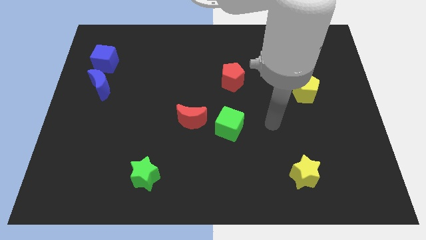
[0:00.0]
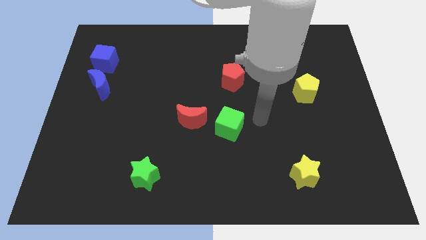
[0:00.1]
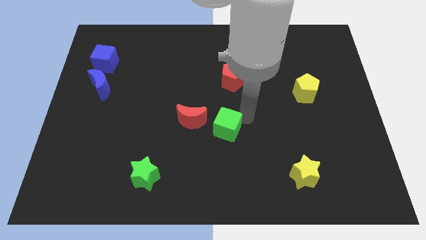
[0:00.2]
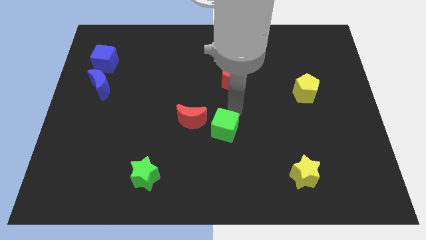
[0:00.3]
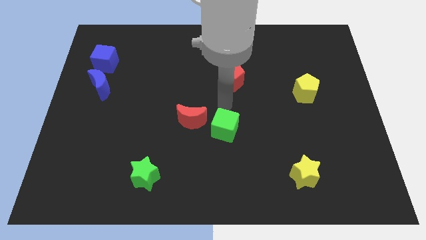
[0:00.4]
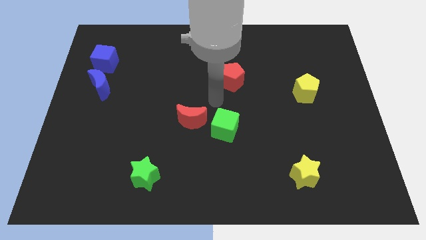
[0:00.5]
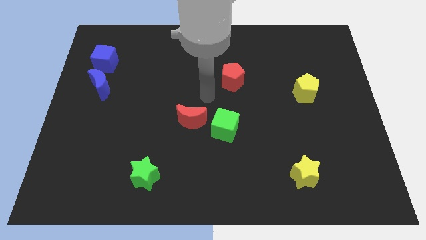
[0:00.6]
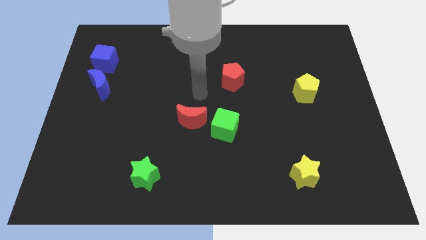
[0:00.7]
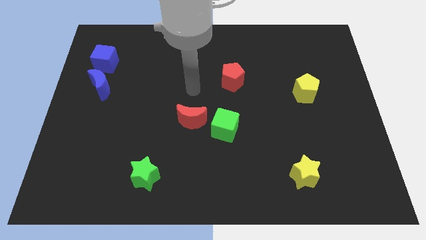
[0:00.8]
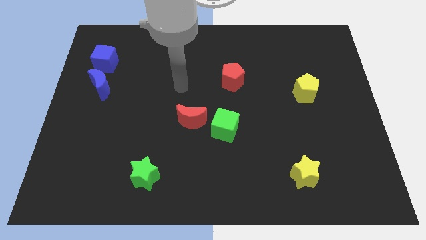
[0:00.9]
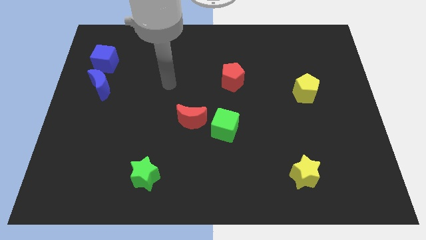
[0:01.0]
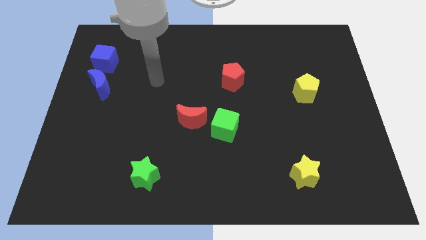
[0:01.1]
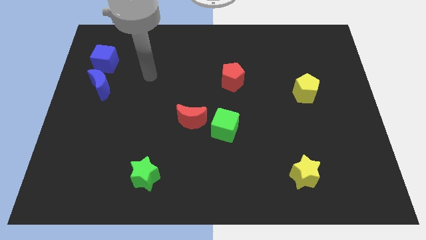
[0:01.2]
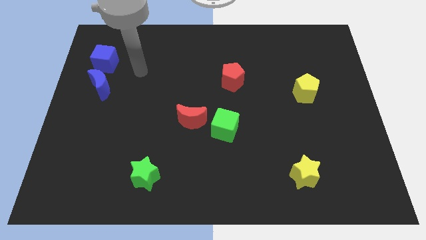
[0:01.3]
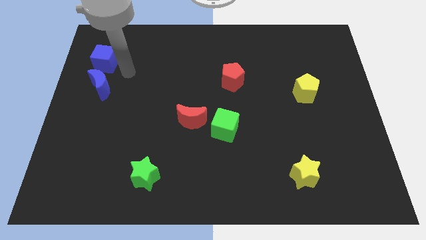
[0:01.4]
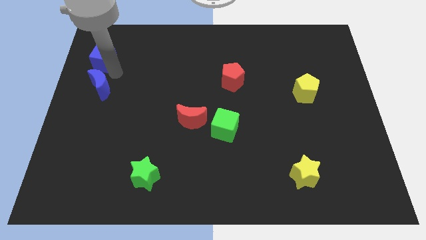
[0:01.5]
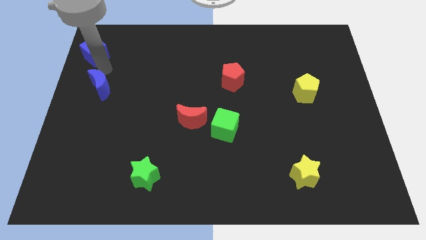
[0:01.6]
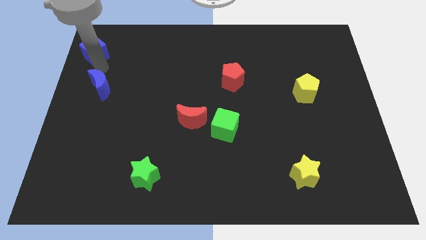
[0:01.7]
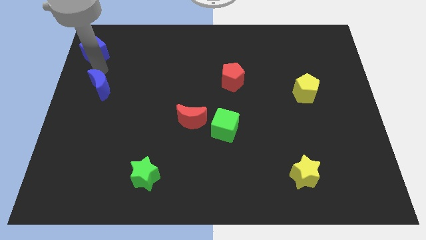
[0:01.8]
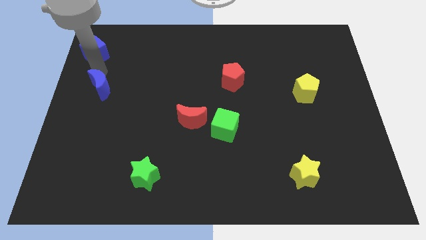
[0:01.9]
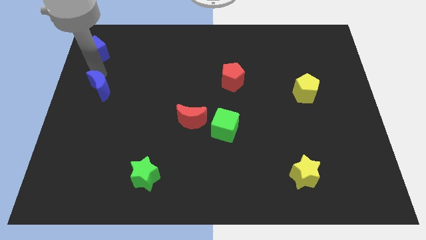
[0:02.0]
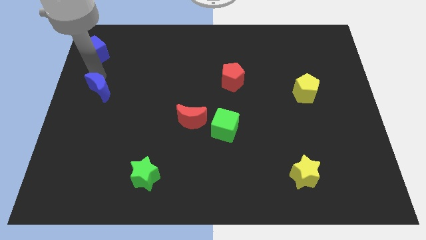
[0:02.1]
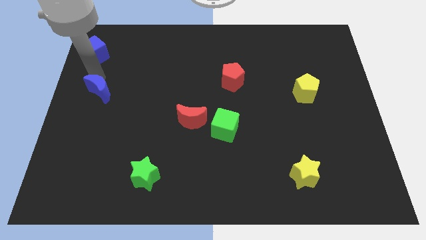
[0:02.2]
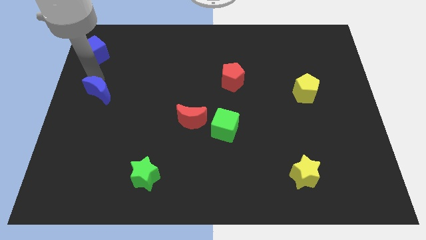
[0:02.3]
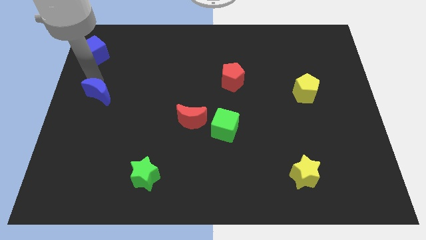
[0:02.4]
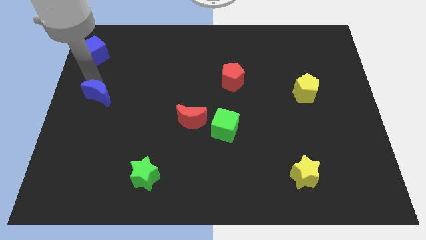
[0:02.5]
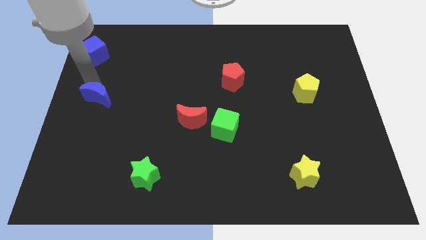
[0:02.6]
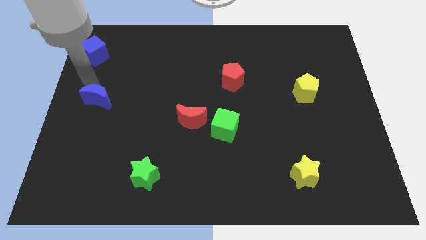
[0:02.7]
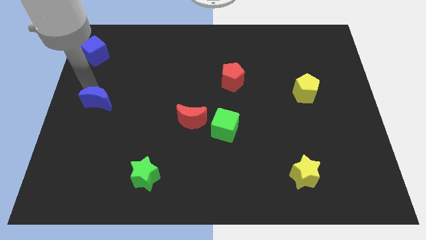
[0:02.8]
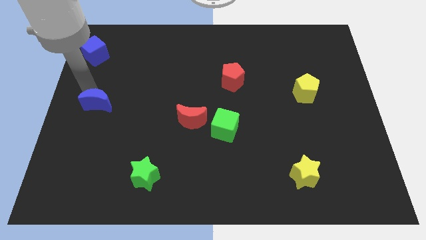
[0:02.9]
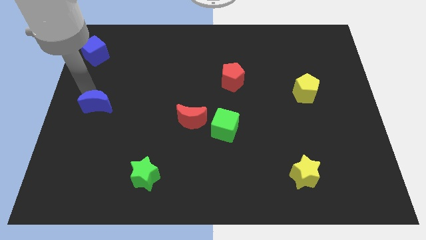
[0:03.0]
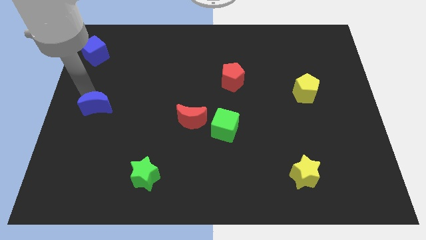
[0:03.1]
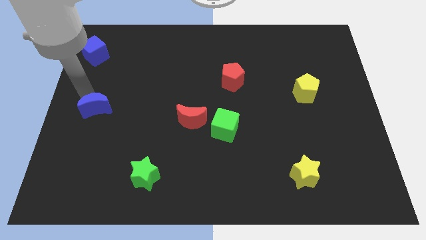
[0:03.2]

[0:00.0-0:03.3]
push the blue moon down a bit

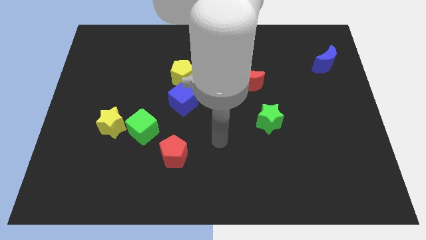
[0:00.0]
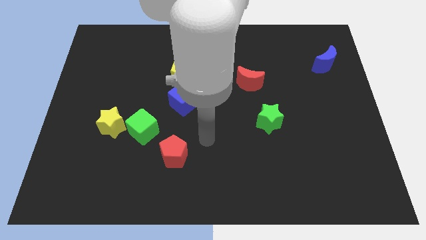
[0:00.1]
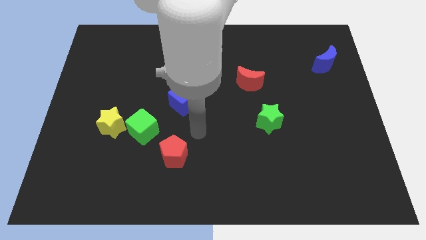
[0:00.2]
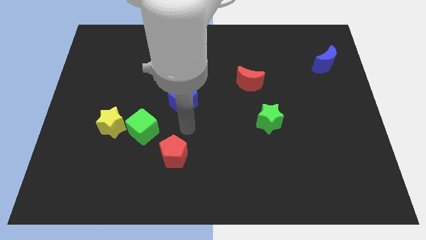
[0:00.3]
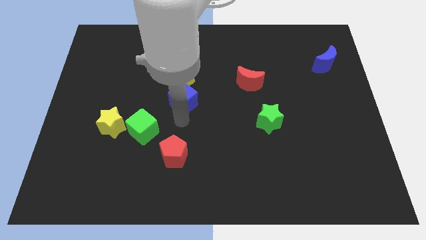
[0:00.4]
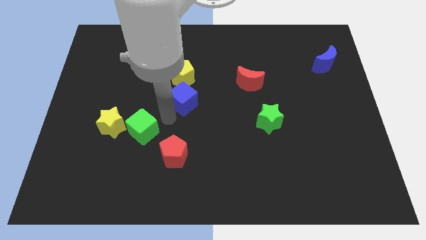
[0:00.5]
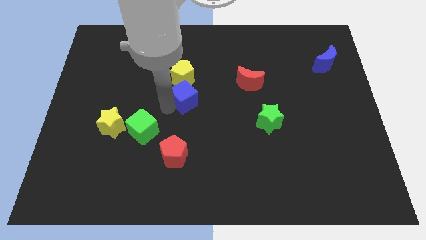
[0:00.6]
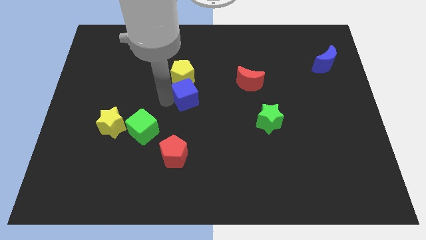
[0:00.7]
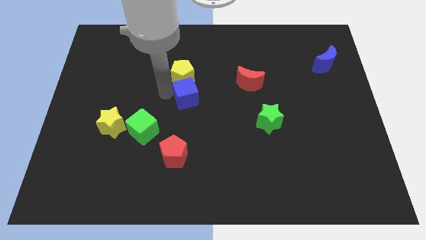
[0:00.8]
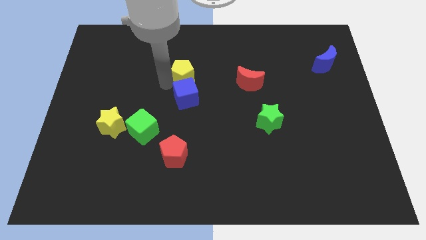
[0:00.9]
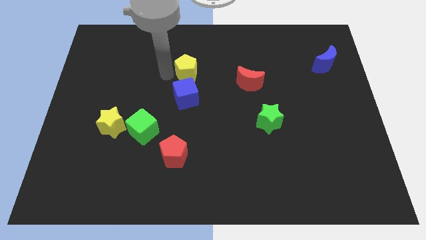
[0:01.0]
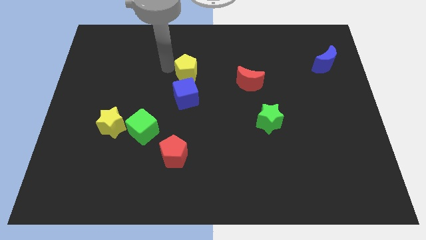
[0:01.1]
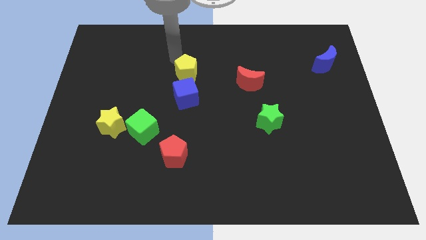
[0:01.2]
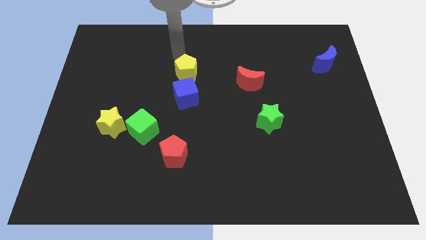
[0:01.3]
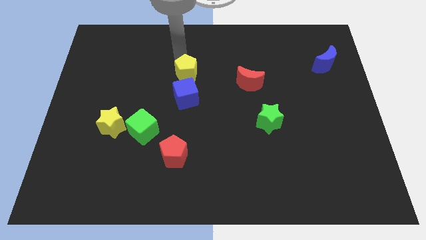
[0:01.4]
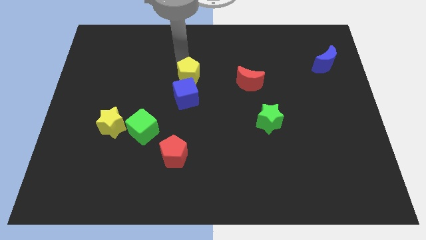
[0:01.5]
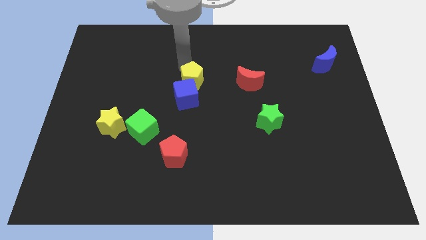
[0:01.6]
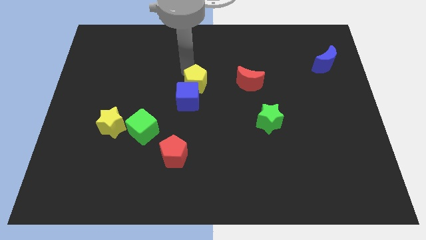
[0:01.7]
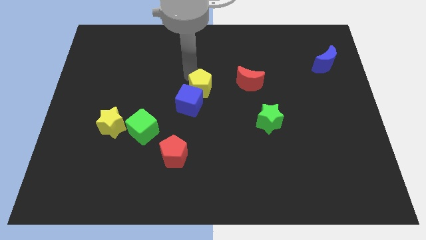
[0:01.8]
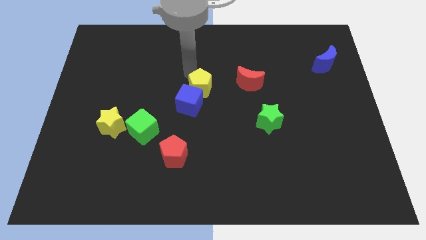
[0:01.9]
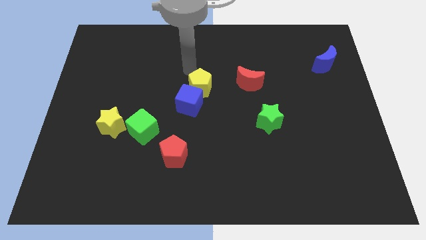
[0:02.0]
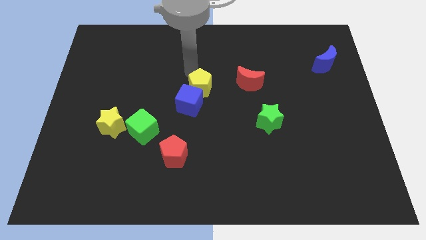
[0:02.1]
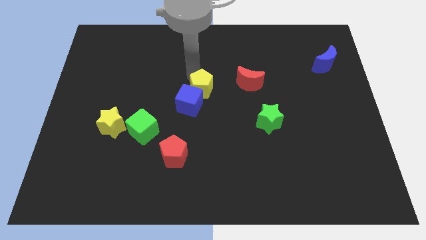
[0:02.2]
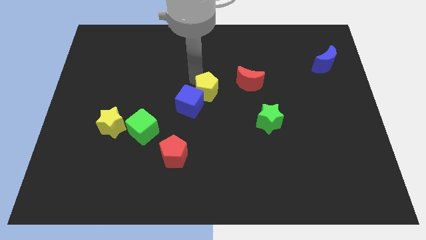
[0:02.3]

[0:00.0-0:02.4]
push the yellow pentagon down and then to the right slightly

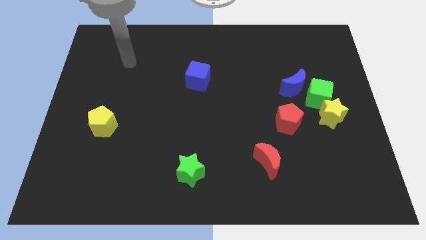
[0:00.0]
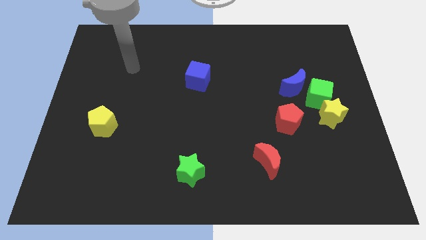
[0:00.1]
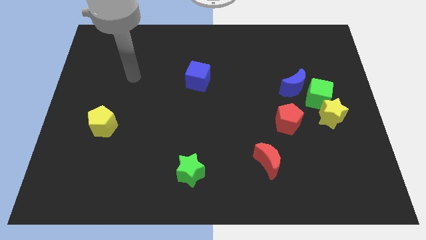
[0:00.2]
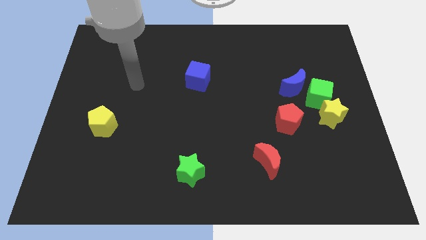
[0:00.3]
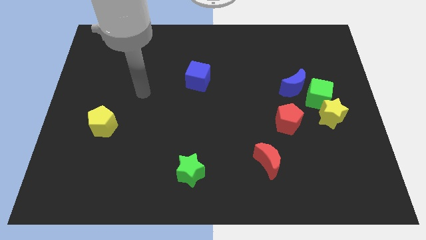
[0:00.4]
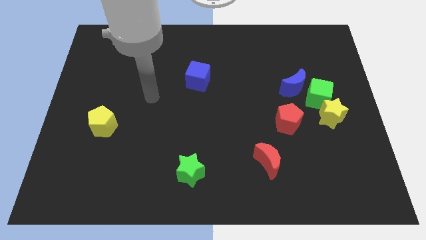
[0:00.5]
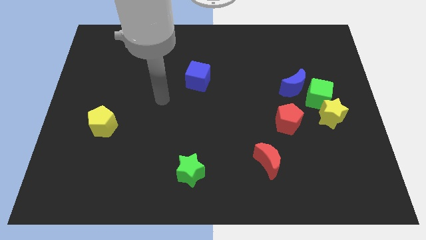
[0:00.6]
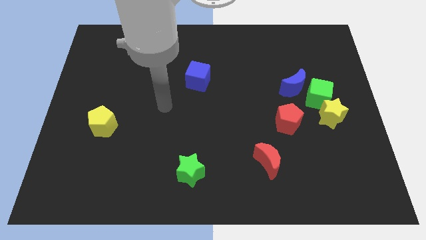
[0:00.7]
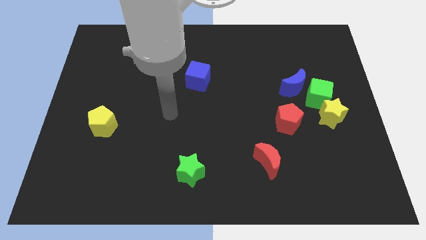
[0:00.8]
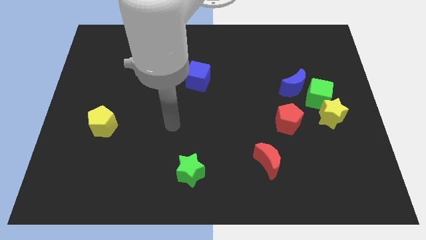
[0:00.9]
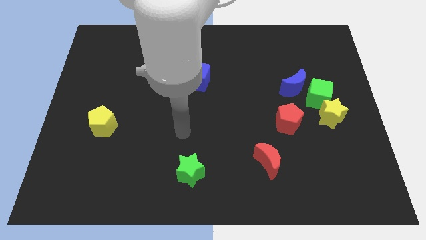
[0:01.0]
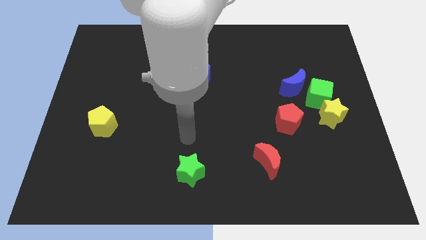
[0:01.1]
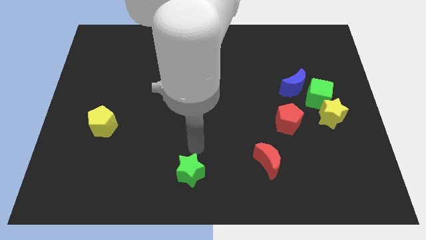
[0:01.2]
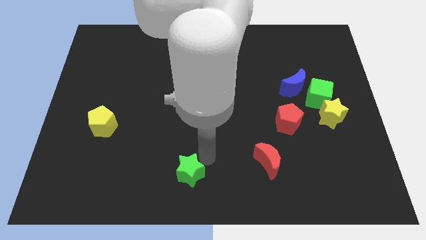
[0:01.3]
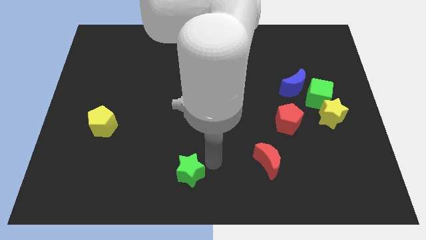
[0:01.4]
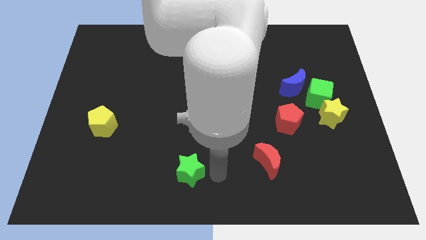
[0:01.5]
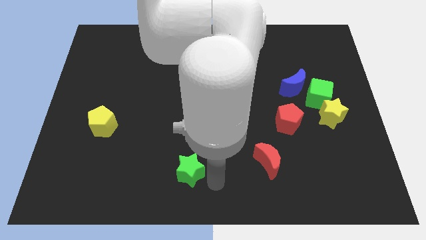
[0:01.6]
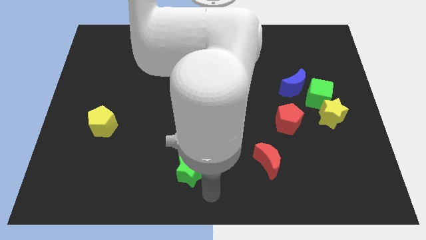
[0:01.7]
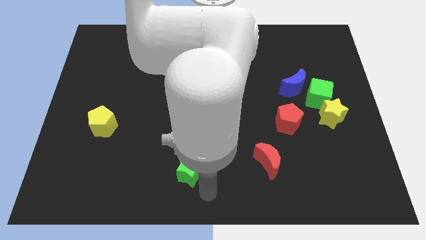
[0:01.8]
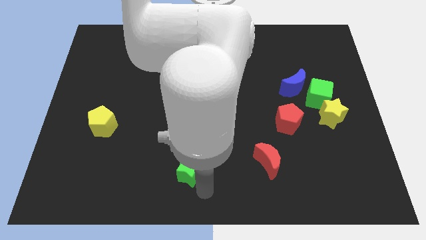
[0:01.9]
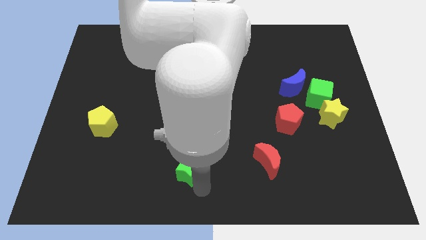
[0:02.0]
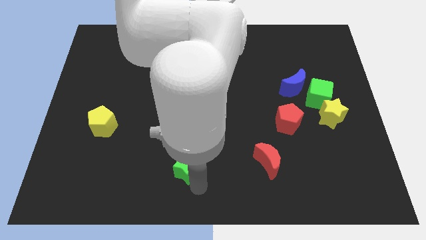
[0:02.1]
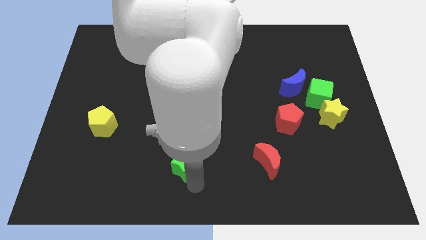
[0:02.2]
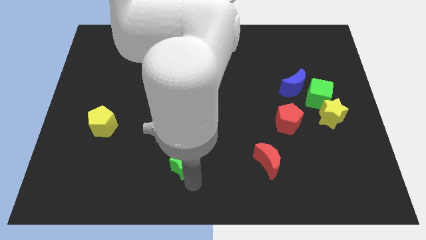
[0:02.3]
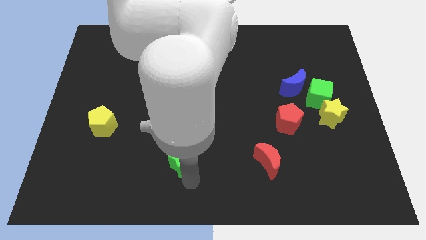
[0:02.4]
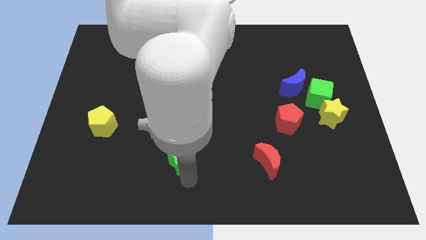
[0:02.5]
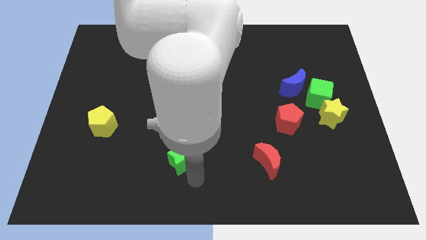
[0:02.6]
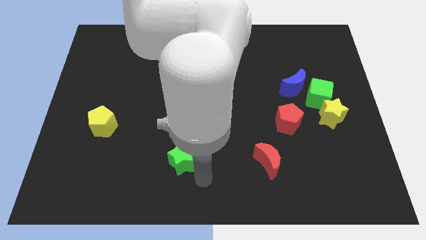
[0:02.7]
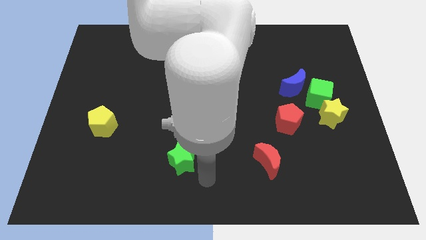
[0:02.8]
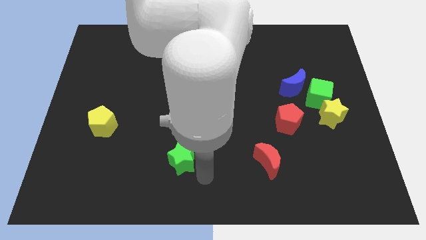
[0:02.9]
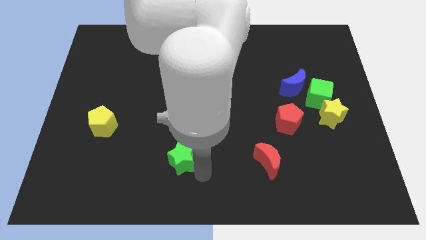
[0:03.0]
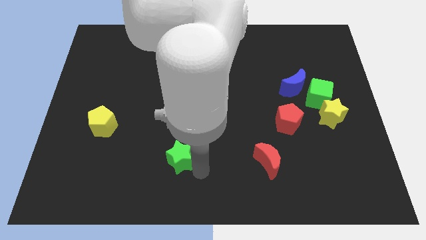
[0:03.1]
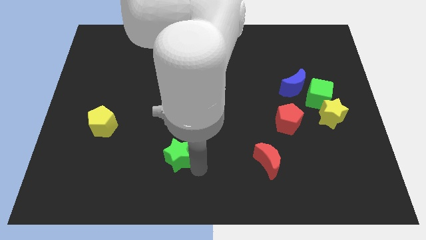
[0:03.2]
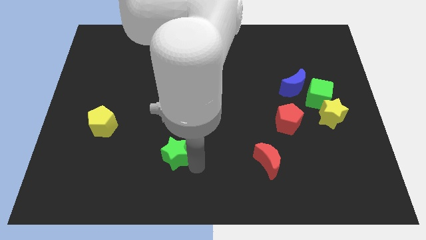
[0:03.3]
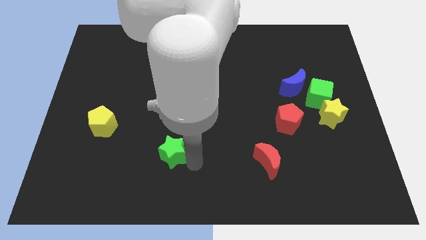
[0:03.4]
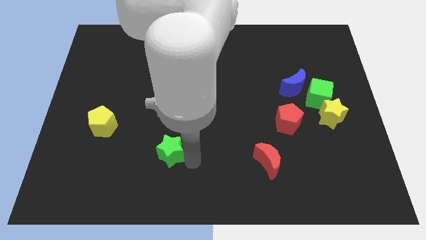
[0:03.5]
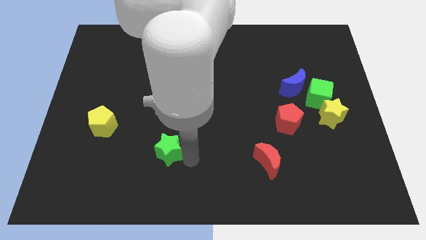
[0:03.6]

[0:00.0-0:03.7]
push the green star diagonally upwards and to the left a bit
